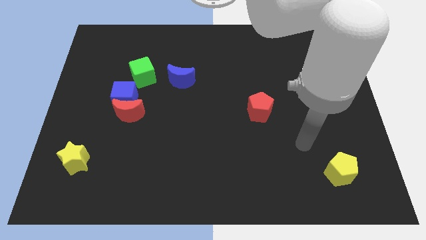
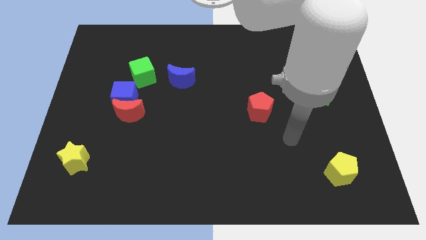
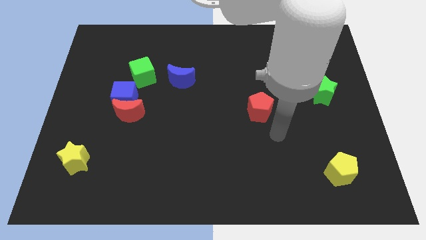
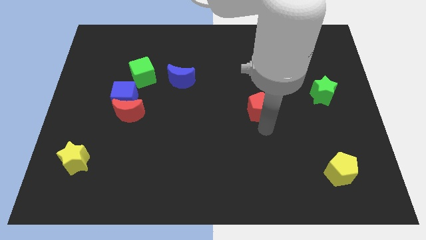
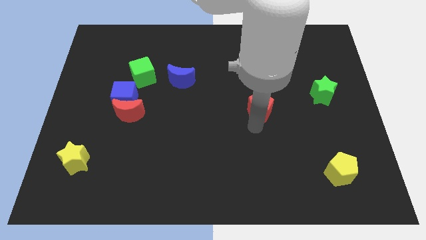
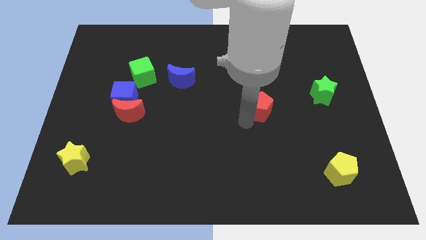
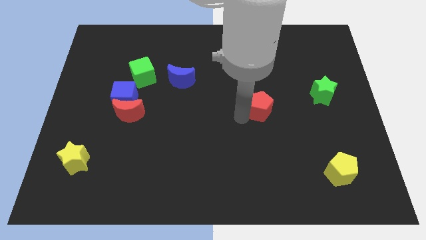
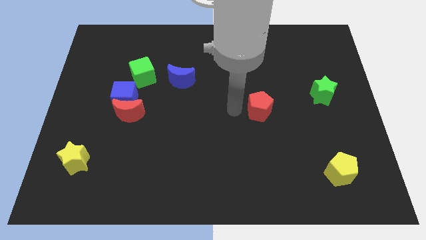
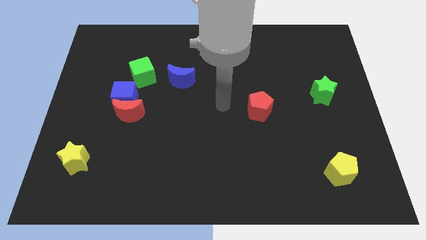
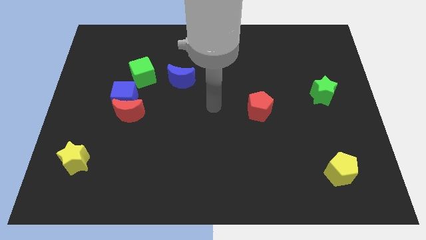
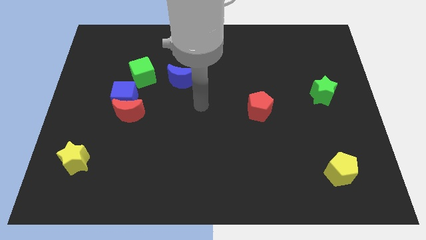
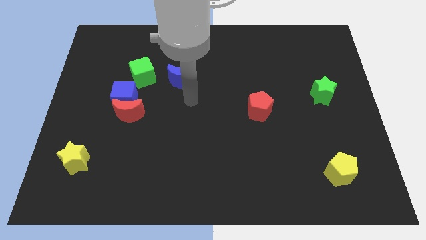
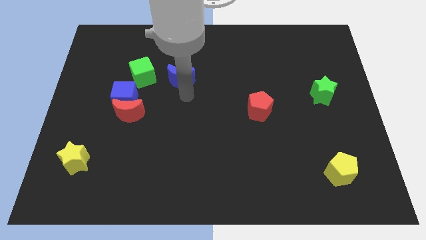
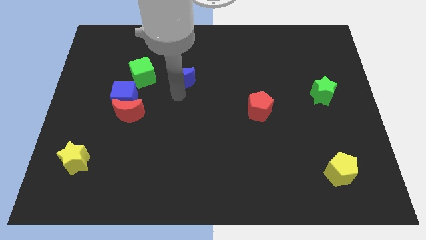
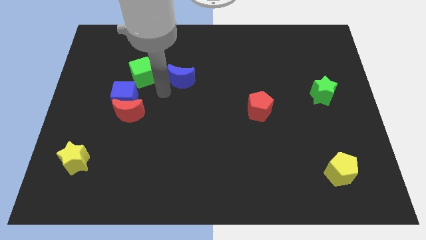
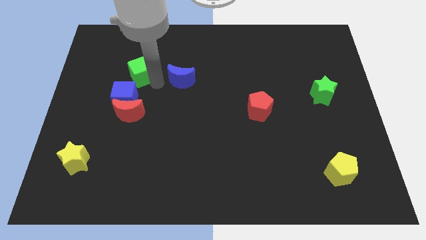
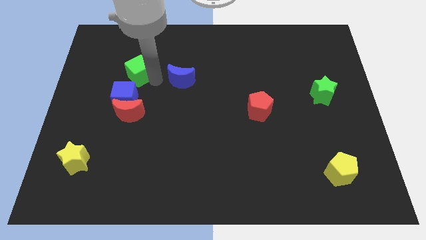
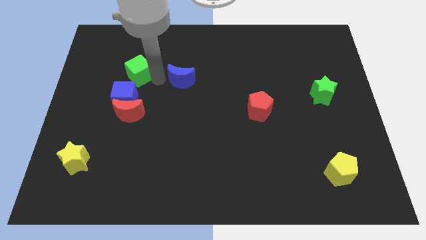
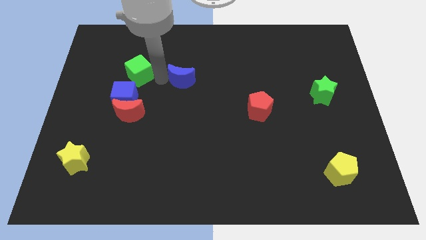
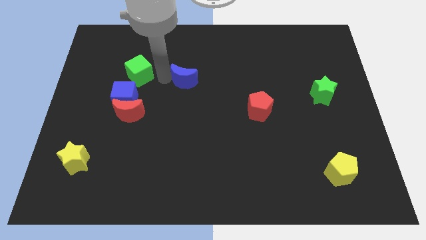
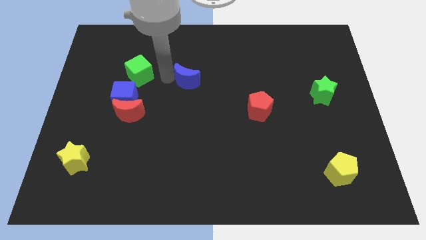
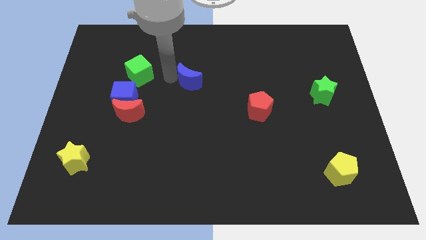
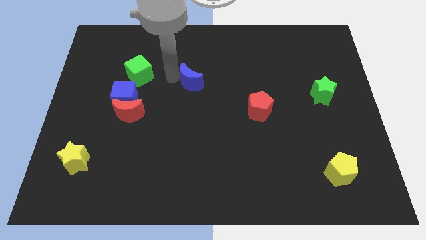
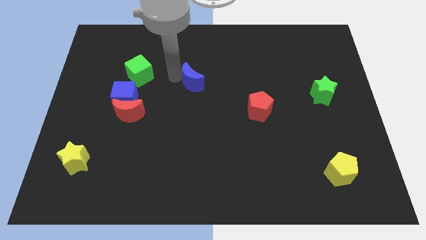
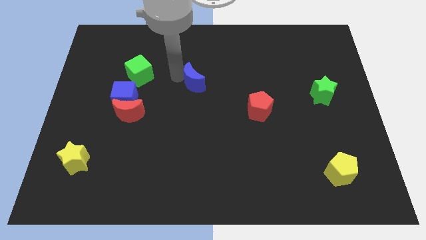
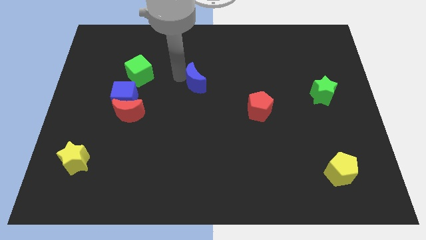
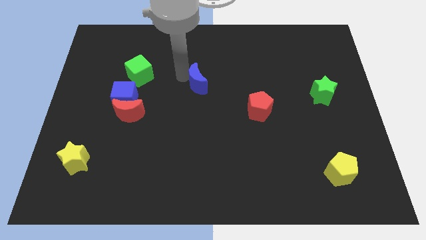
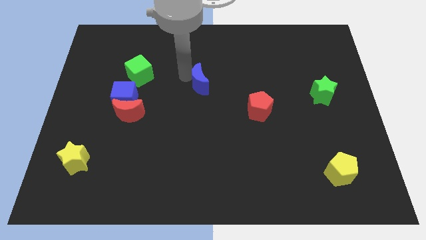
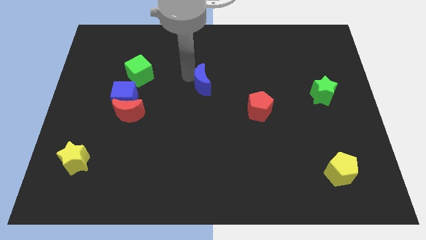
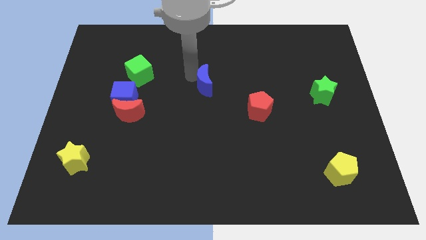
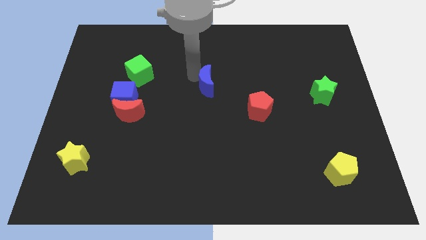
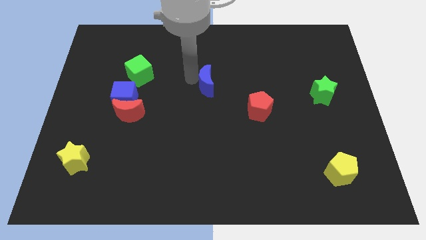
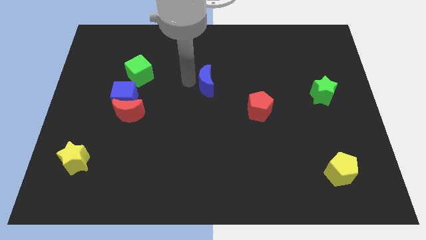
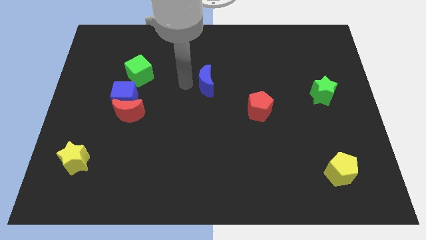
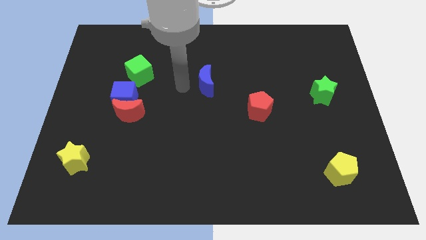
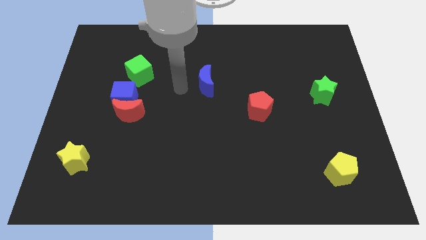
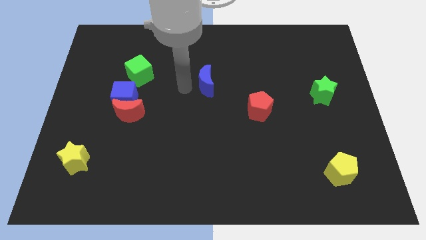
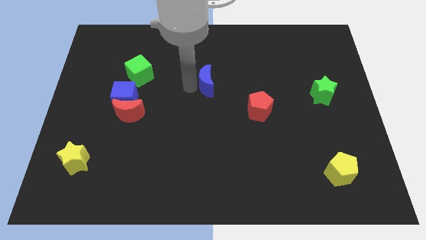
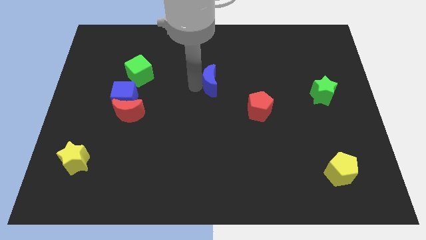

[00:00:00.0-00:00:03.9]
push the blue moon a little bit to the right

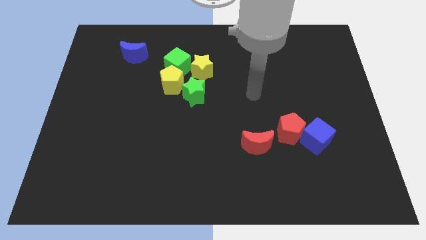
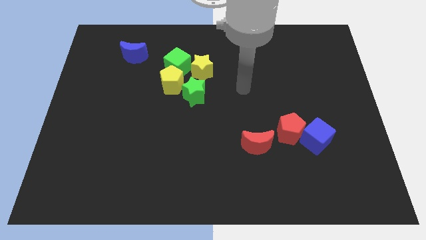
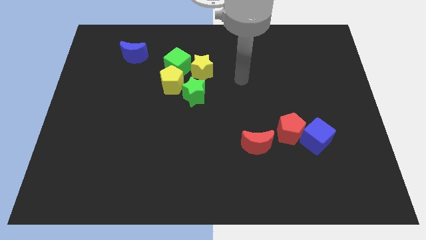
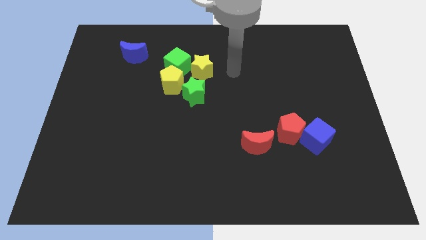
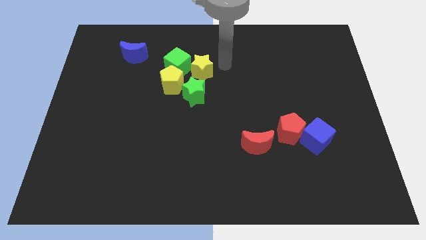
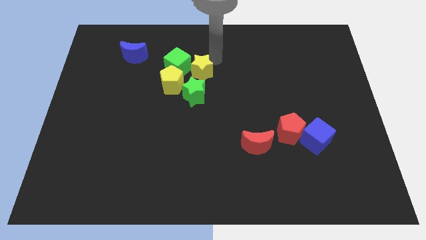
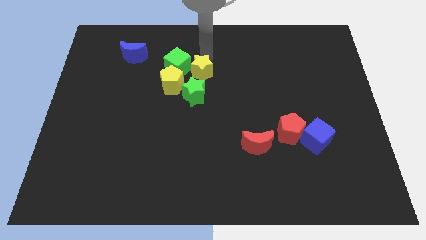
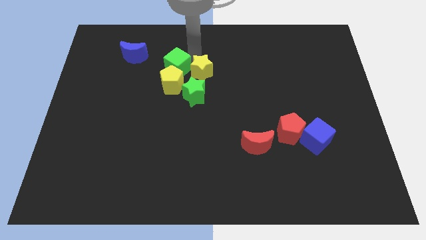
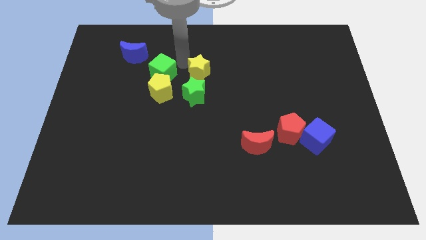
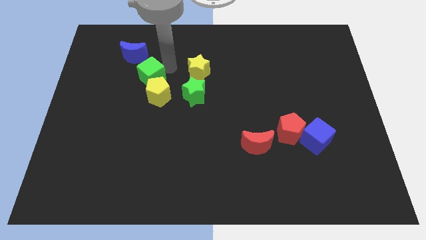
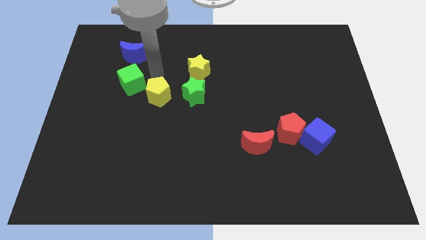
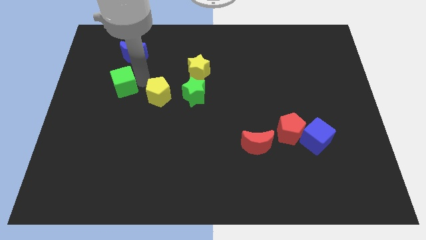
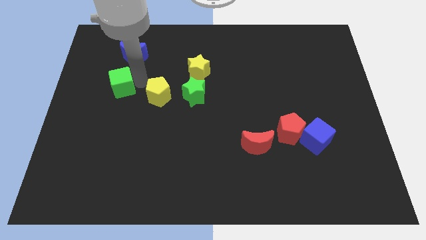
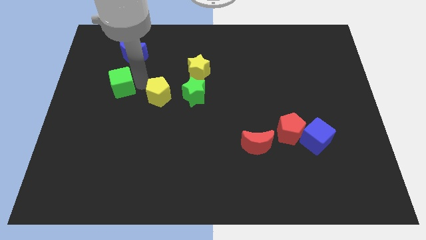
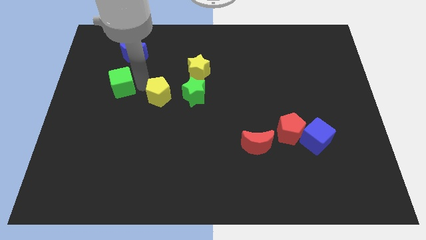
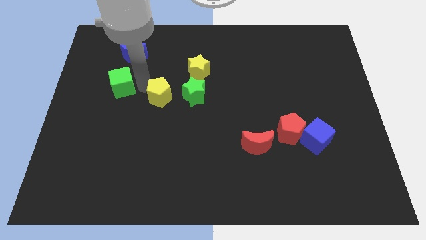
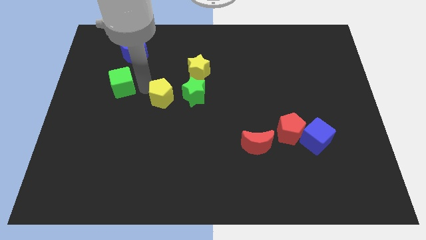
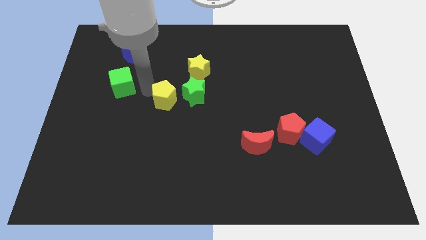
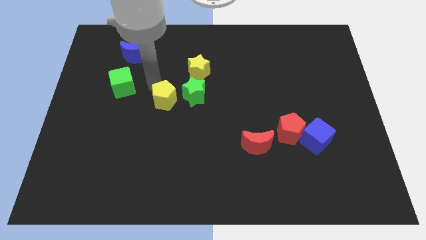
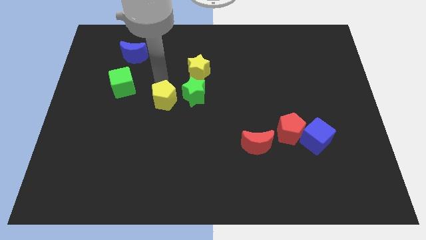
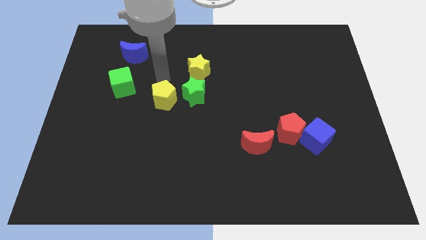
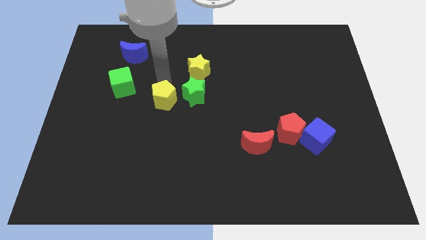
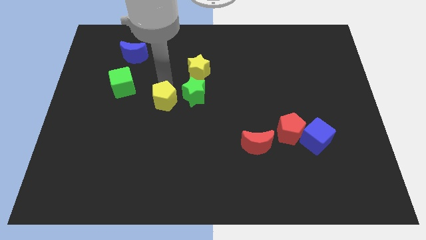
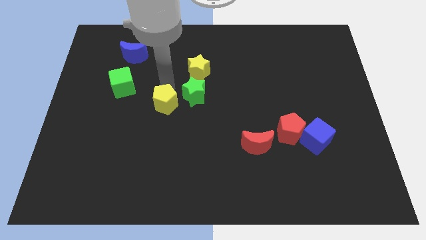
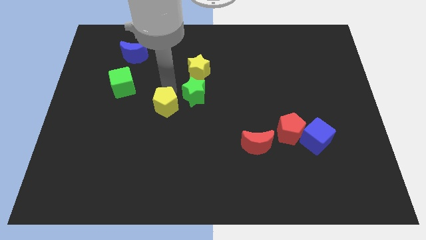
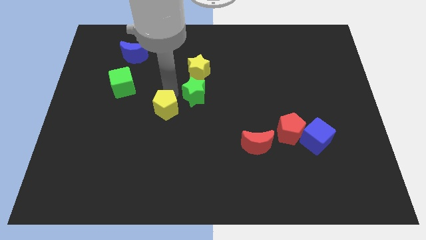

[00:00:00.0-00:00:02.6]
slightly slide the yellow pentagon down

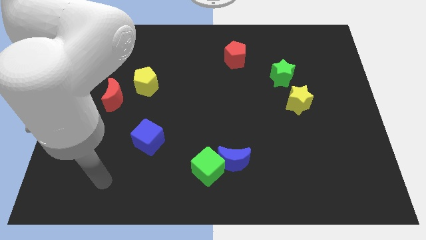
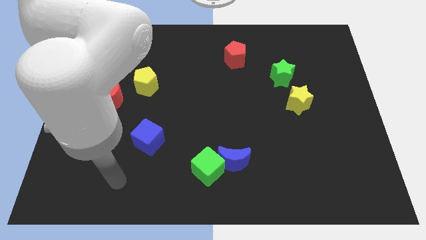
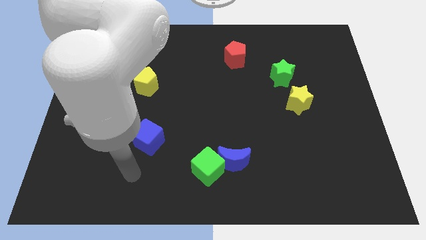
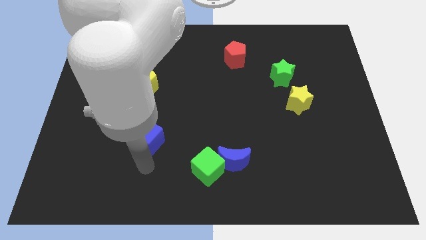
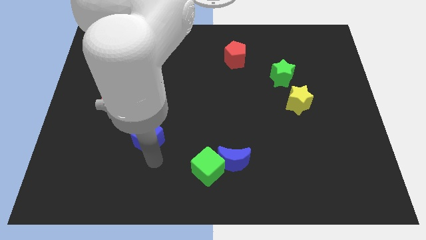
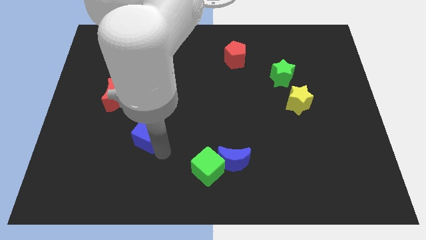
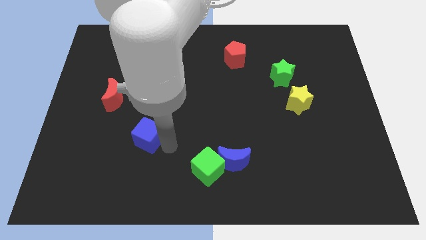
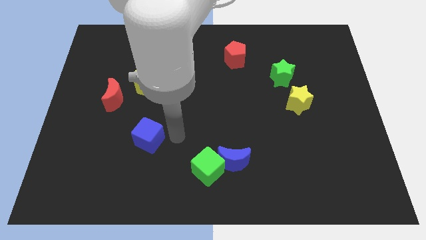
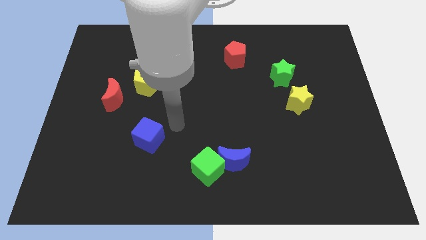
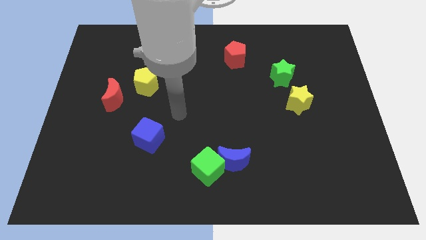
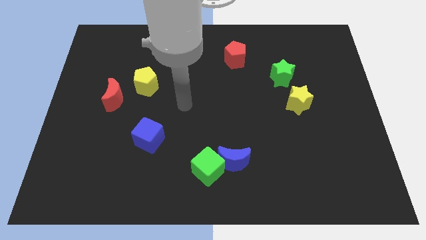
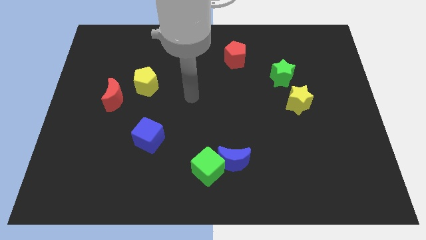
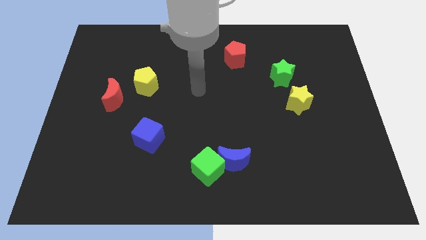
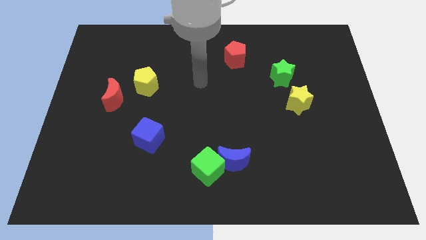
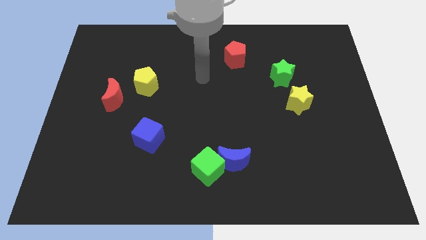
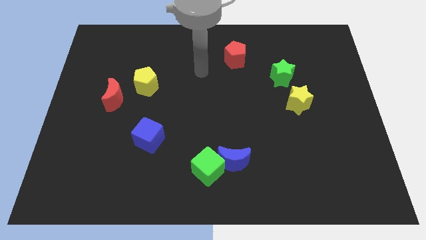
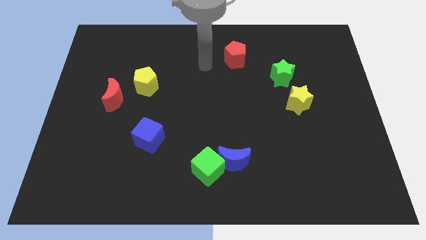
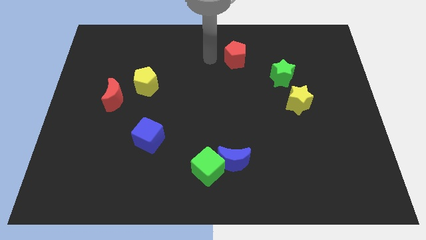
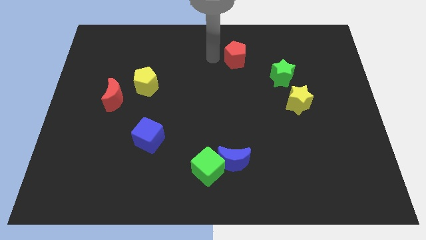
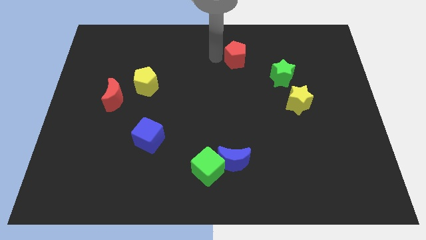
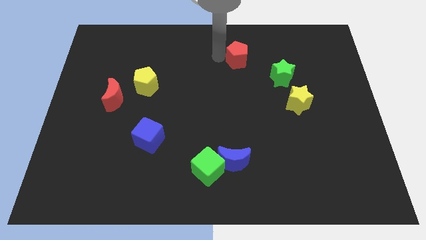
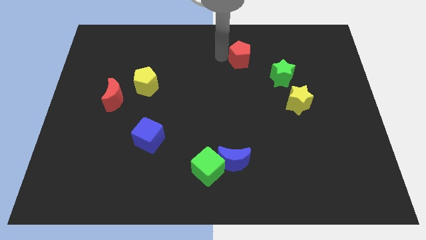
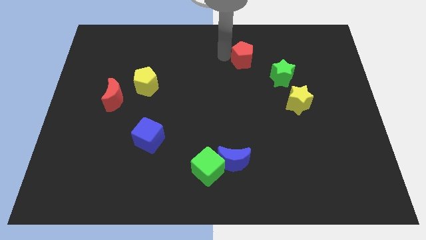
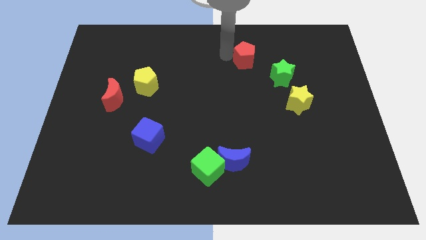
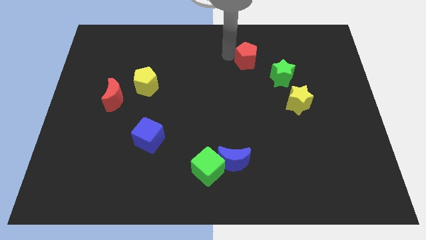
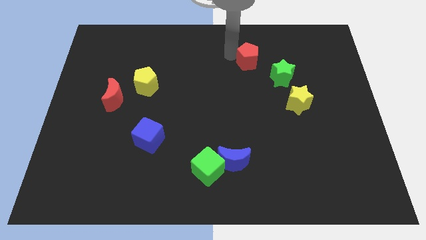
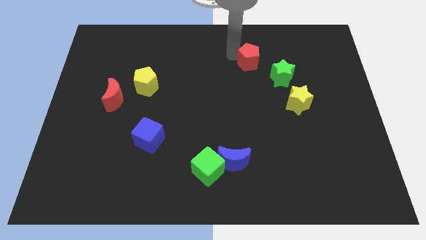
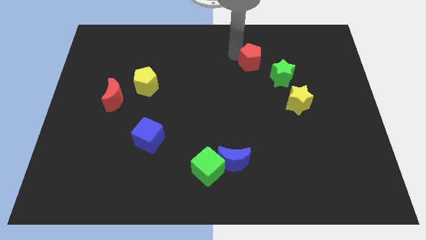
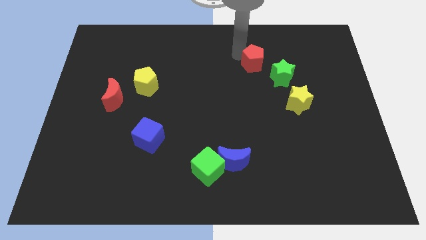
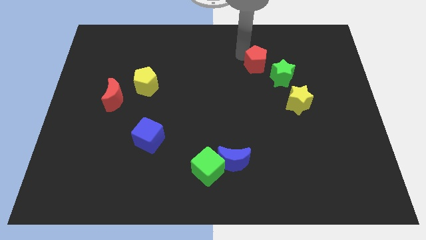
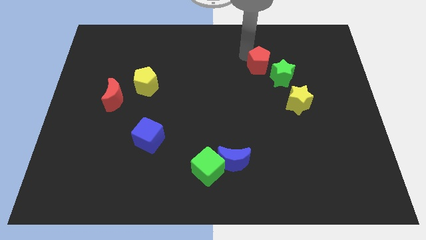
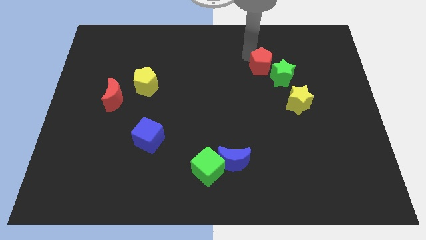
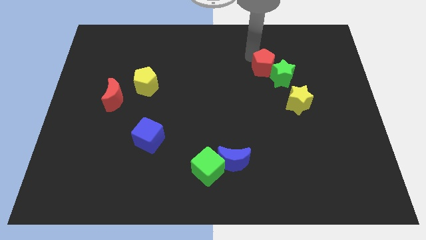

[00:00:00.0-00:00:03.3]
slightly move the red pentagon to the right
